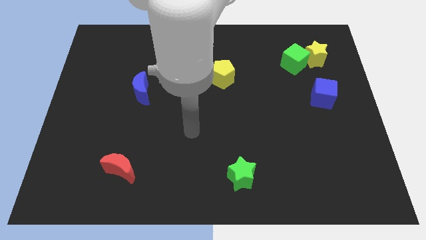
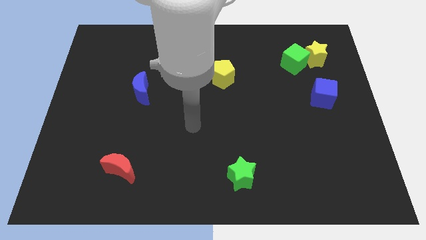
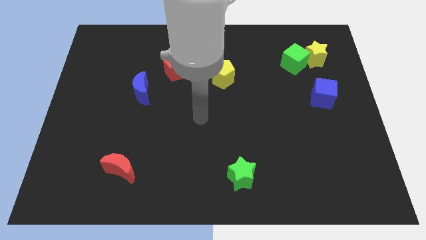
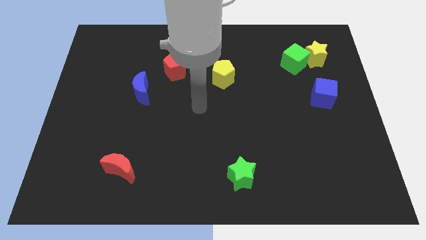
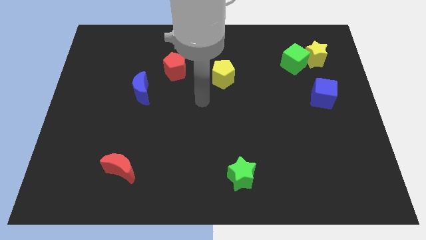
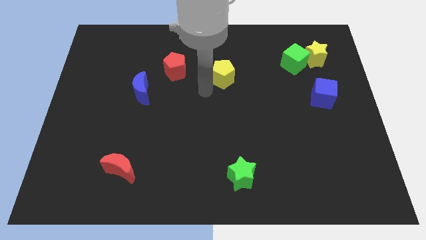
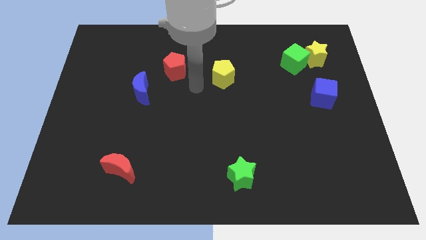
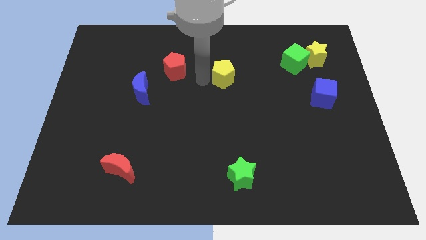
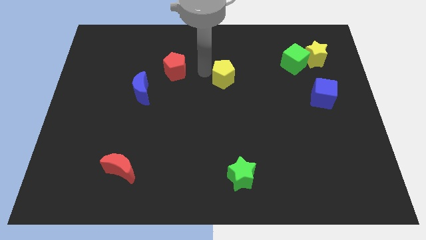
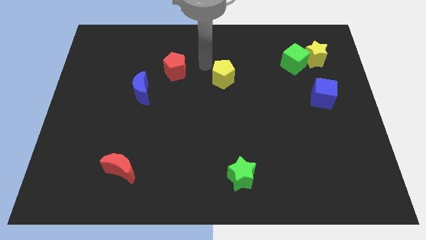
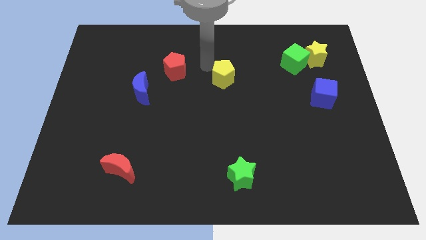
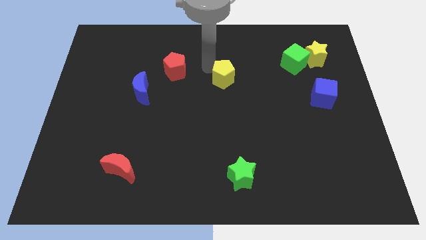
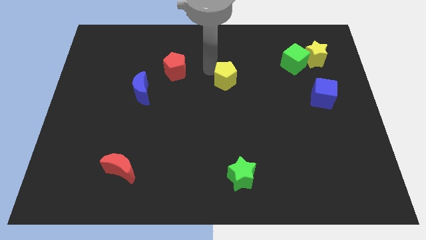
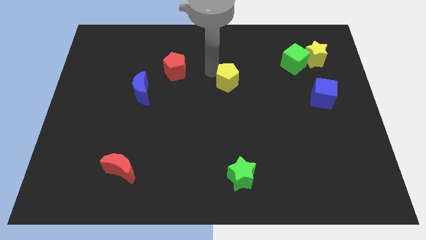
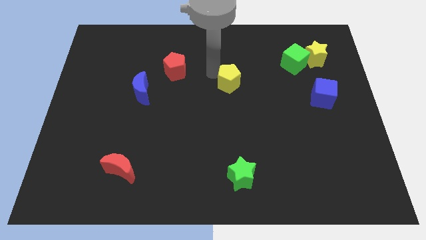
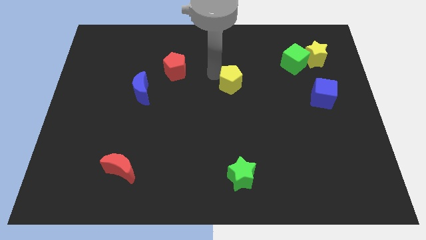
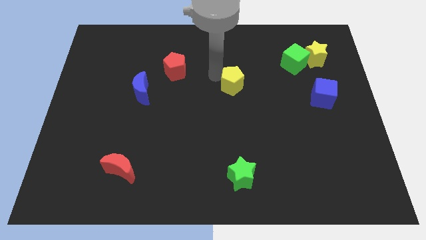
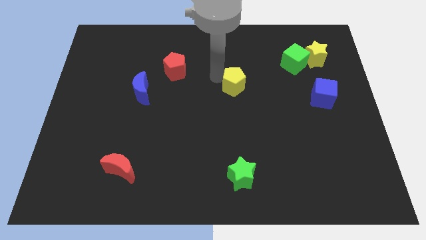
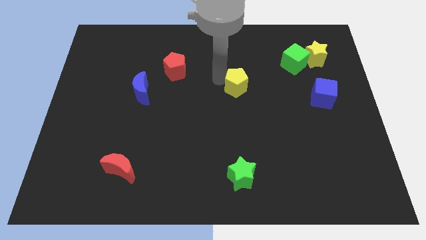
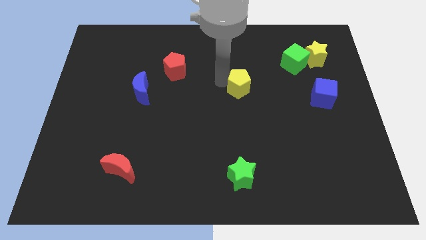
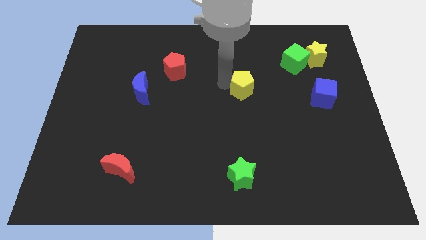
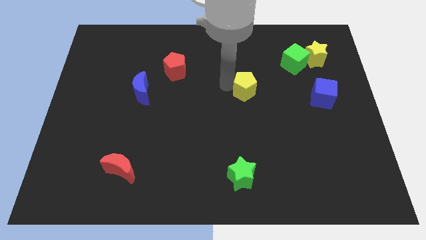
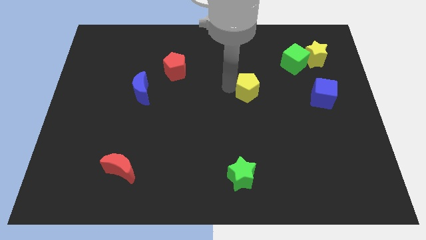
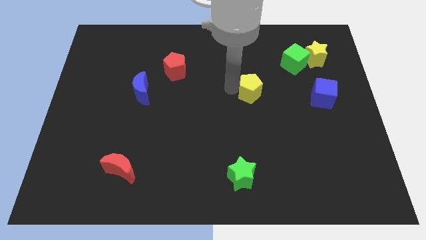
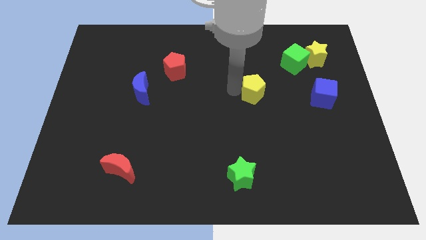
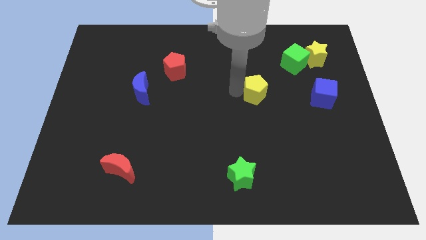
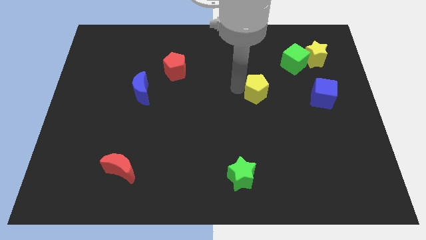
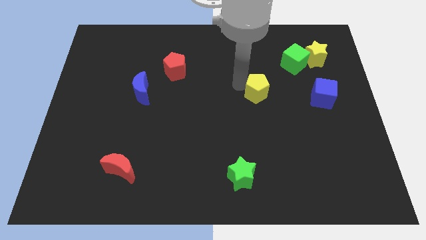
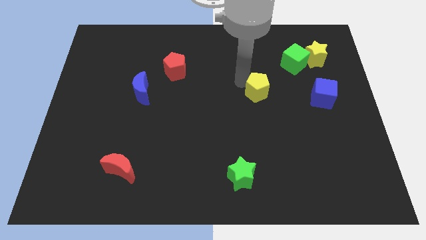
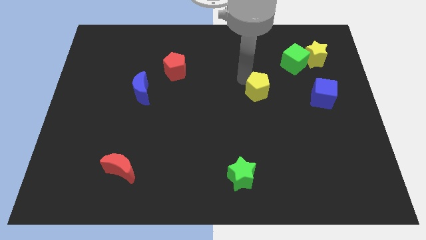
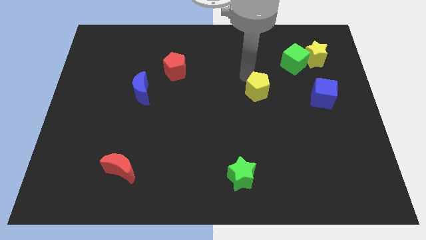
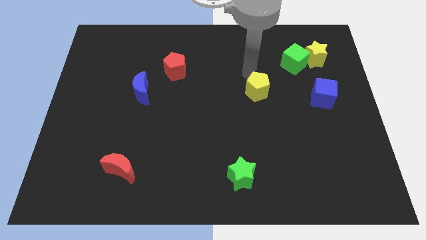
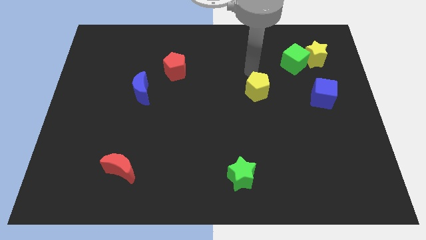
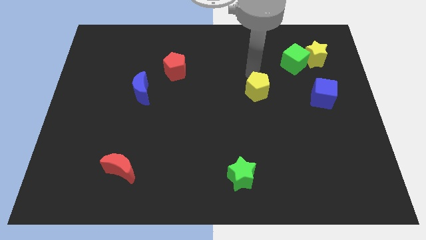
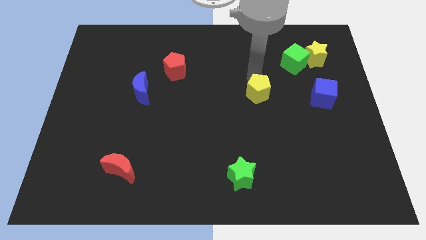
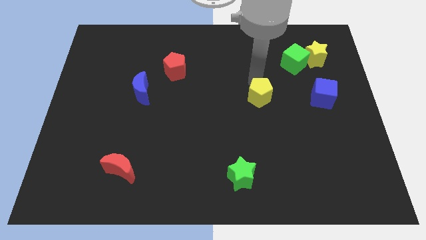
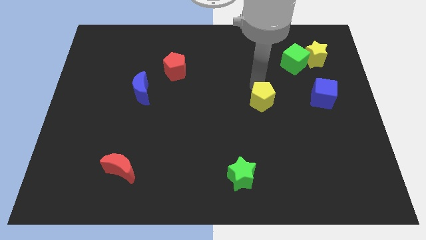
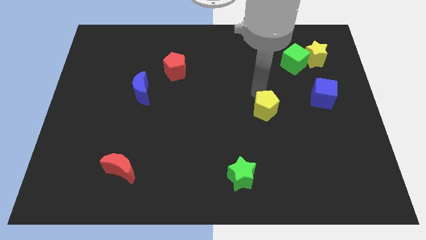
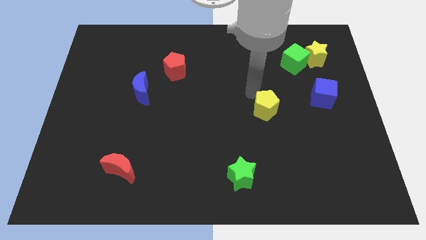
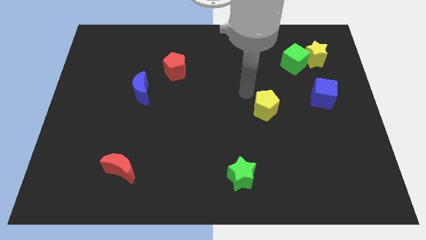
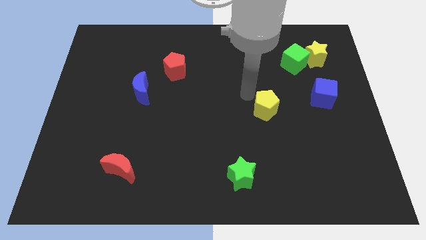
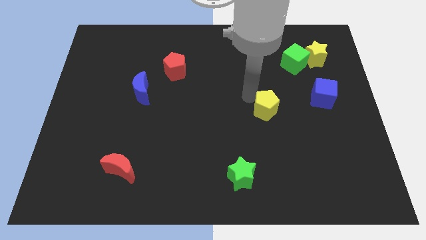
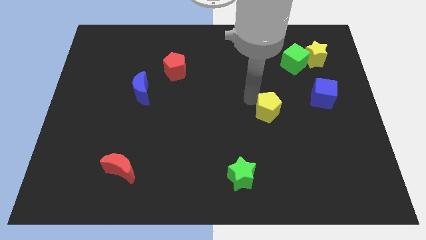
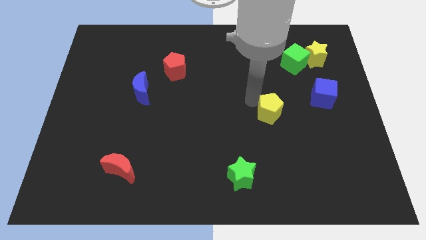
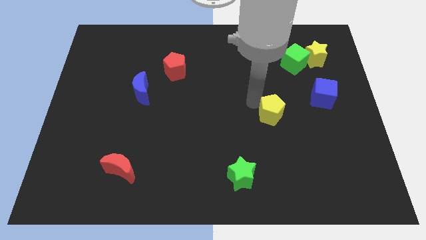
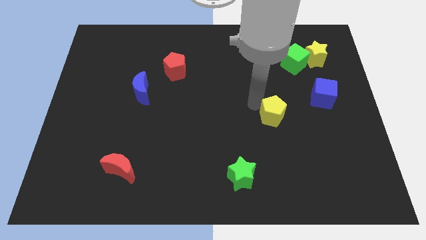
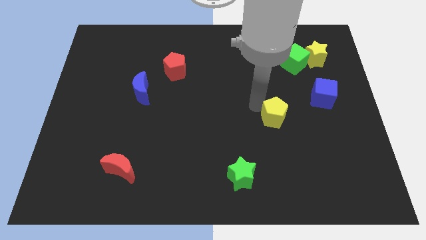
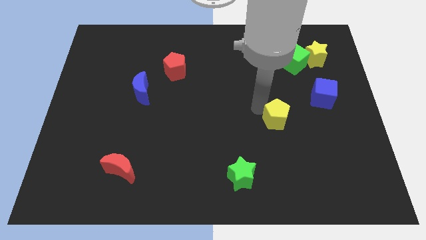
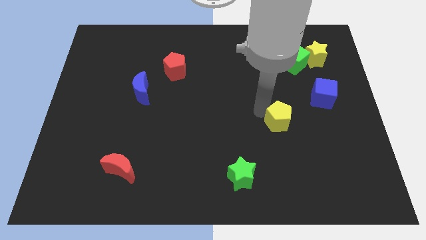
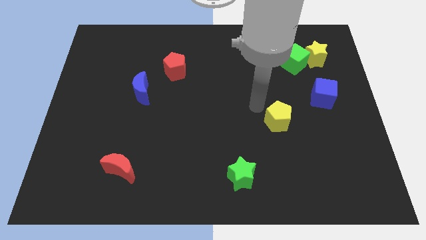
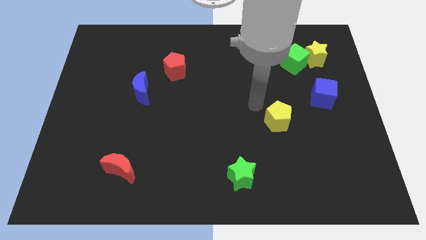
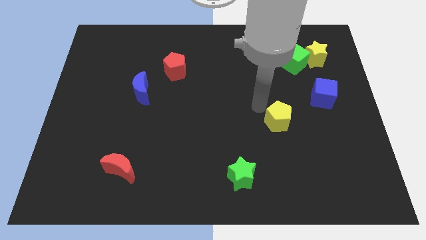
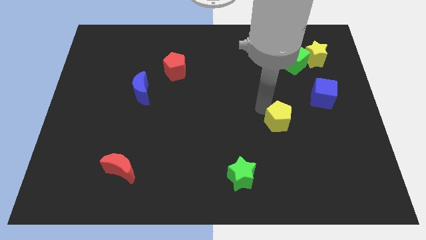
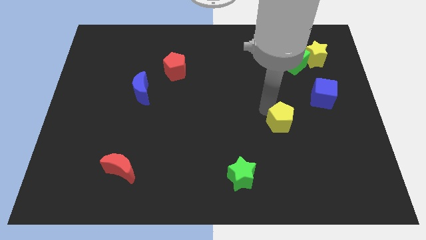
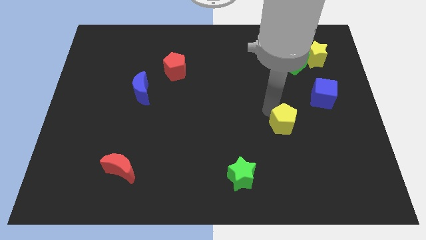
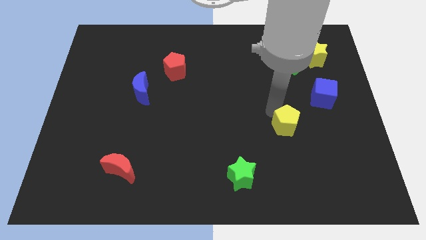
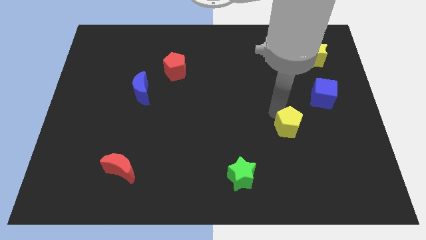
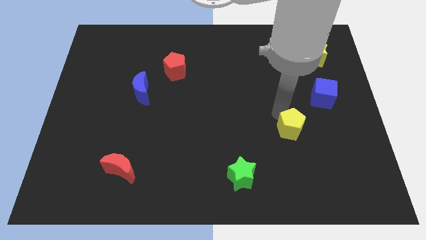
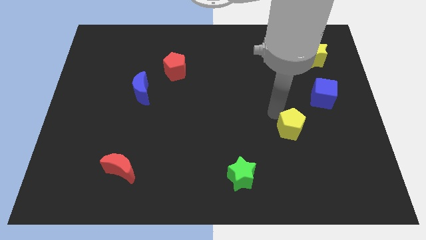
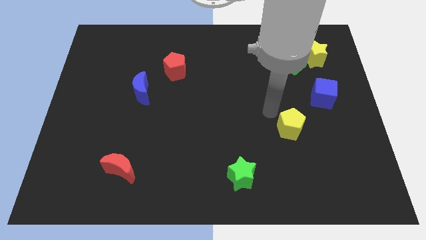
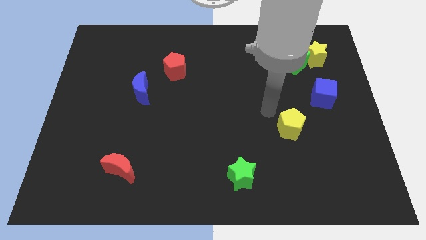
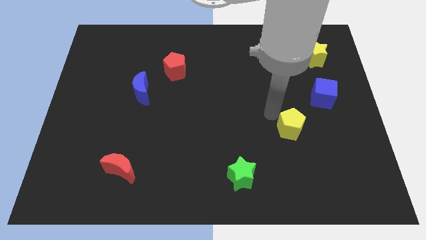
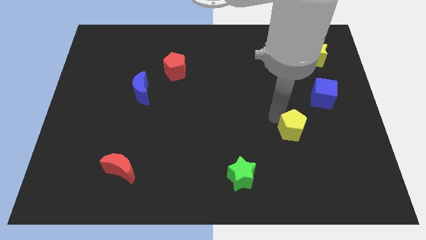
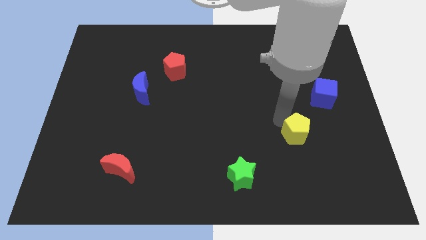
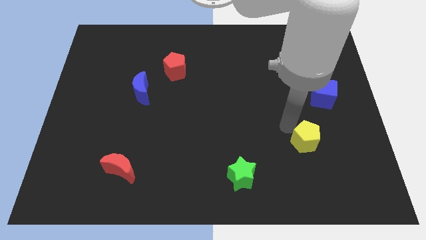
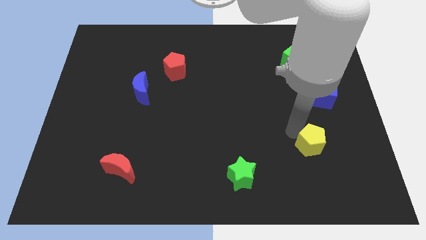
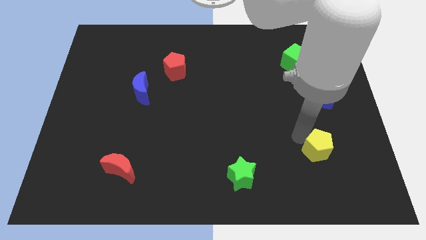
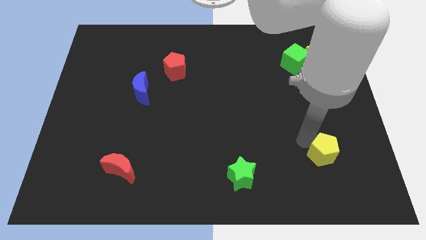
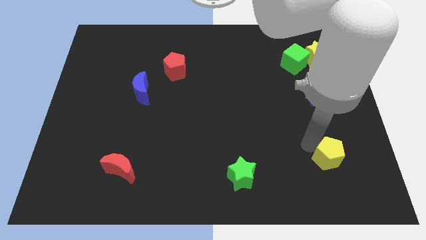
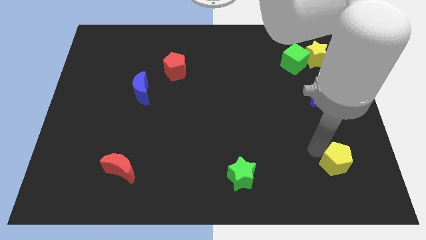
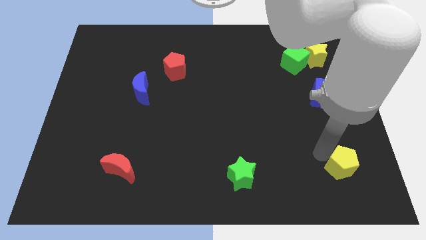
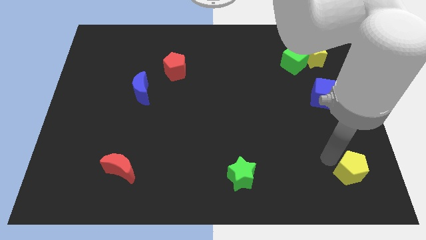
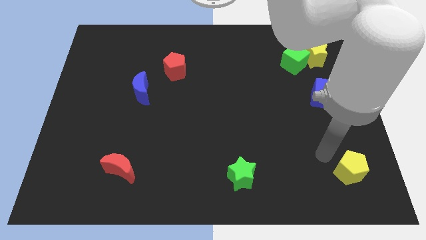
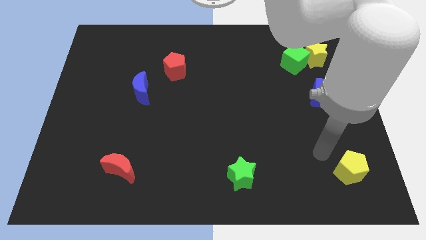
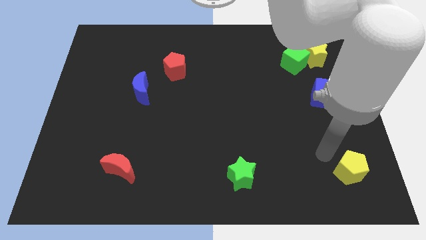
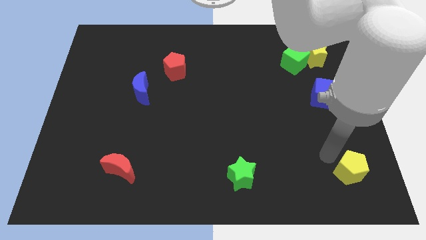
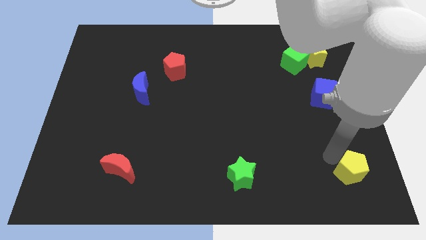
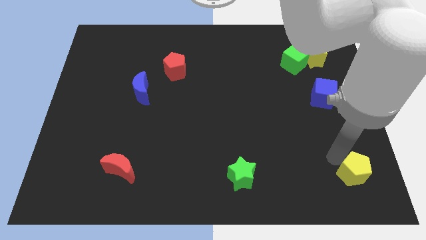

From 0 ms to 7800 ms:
slide the yellow pentagon to the bottom right of the board
